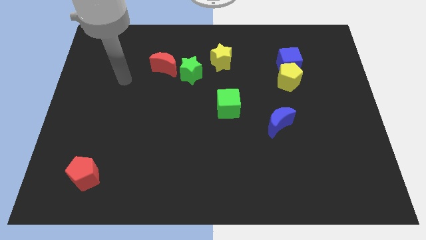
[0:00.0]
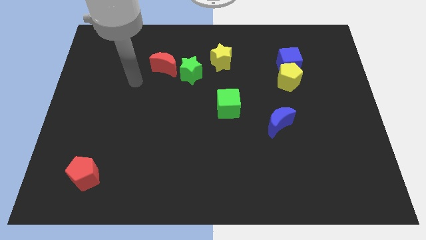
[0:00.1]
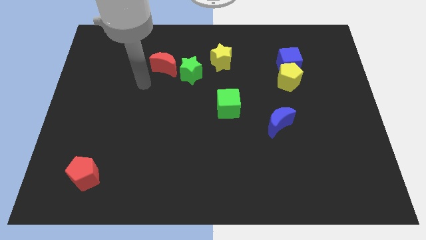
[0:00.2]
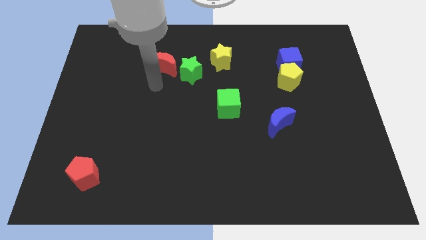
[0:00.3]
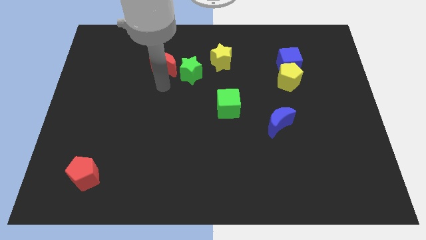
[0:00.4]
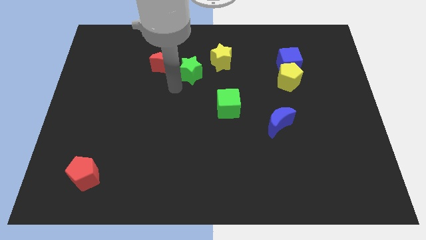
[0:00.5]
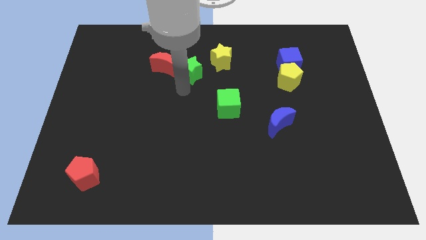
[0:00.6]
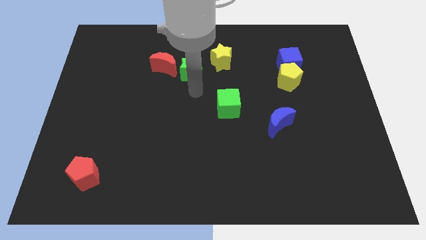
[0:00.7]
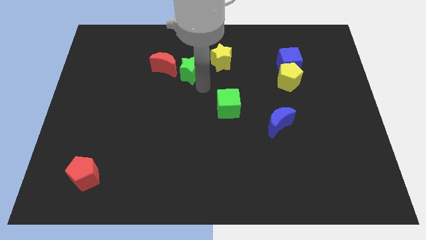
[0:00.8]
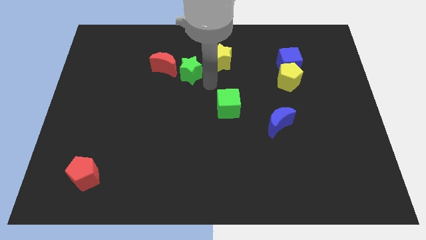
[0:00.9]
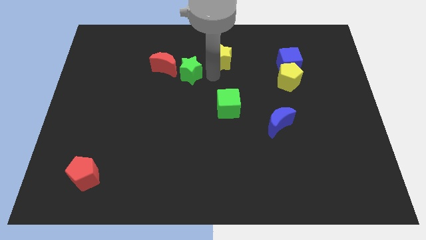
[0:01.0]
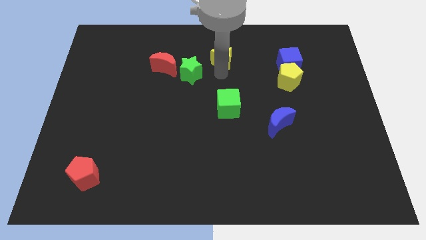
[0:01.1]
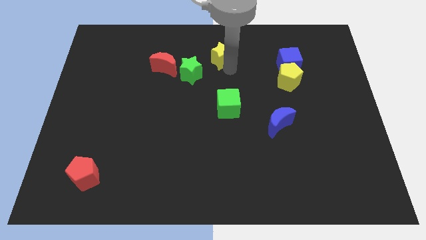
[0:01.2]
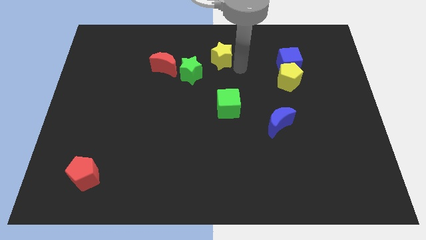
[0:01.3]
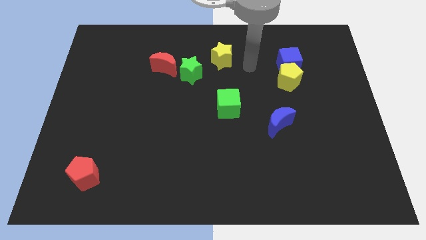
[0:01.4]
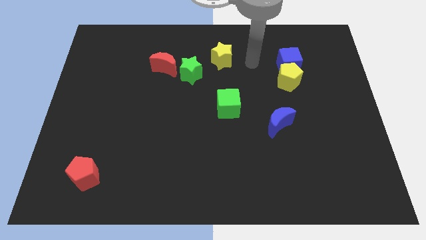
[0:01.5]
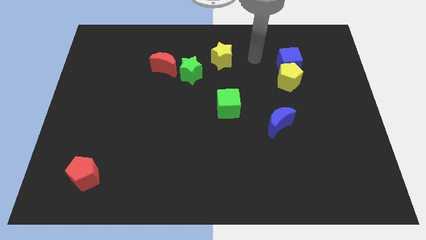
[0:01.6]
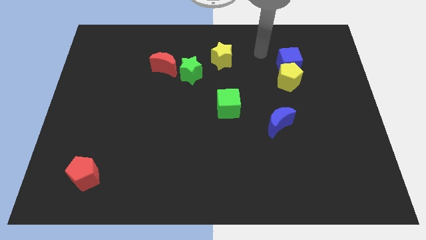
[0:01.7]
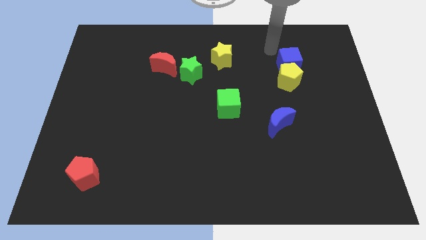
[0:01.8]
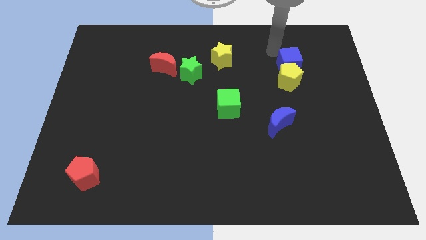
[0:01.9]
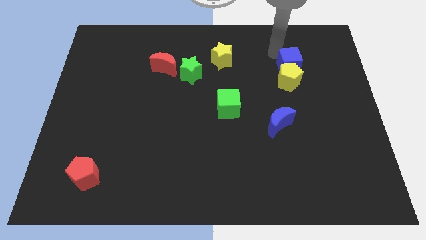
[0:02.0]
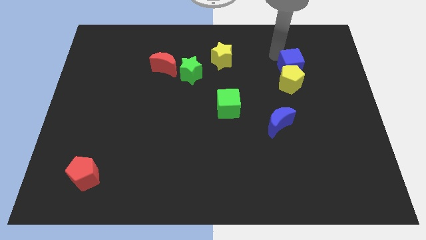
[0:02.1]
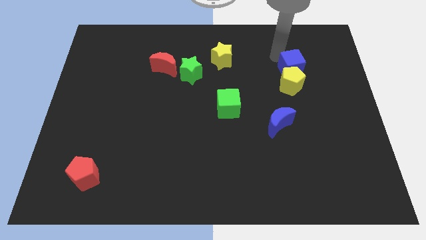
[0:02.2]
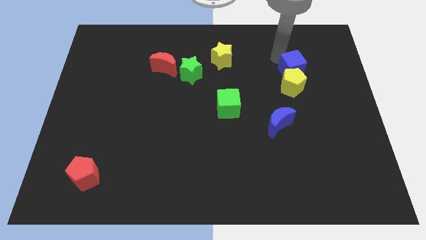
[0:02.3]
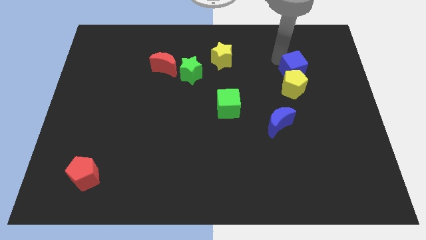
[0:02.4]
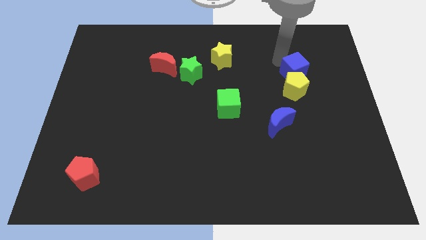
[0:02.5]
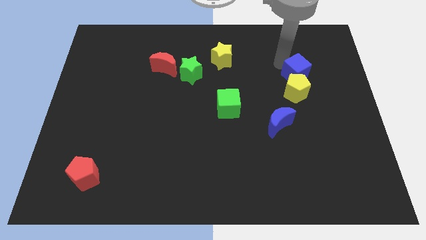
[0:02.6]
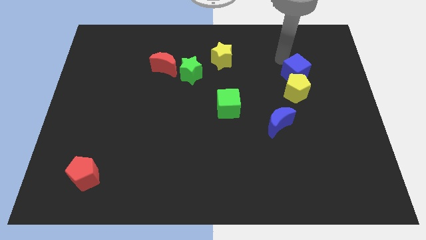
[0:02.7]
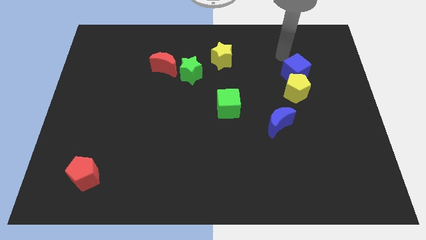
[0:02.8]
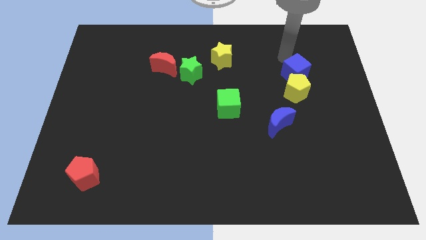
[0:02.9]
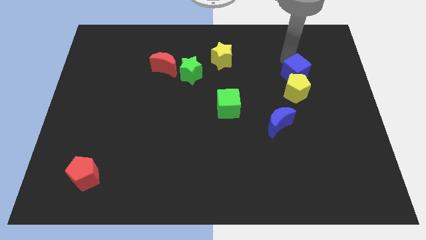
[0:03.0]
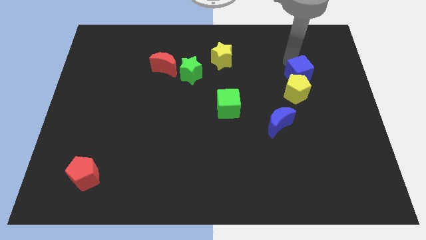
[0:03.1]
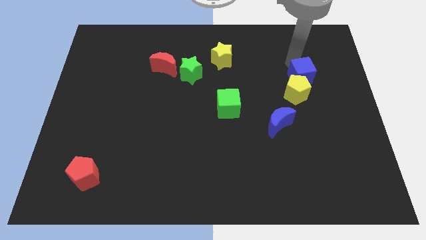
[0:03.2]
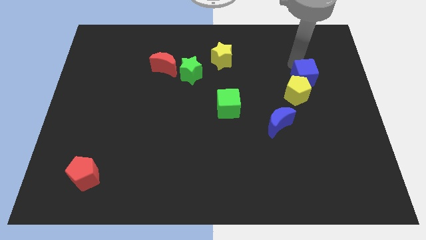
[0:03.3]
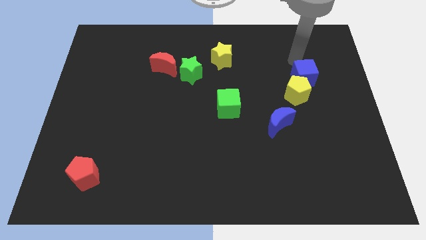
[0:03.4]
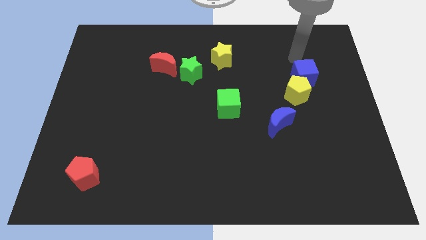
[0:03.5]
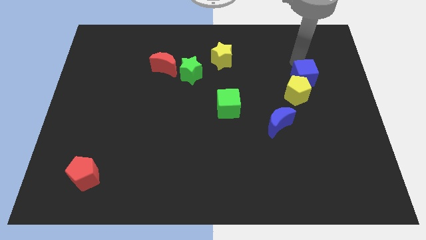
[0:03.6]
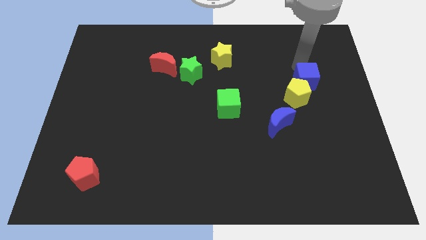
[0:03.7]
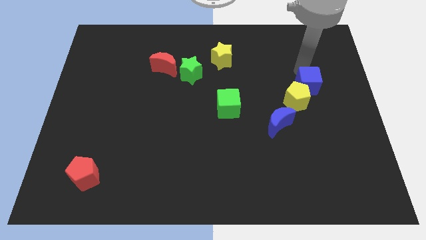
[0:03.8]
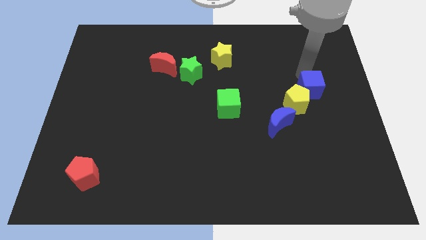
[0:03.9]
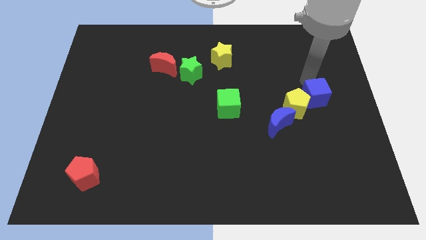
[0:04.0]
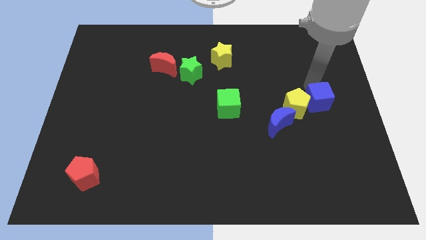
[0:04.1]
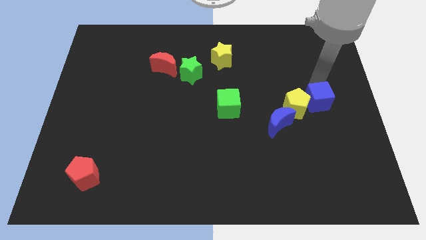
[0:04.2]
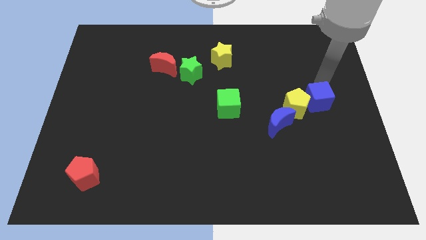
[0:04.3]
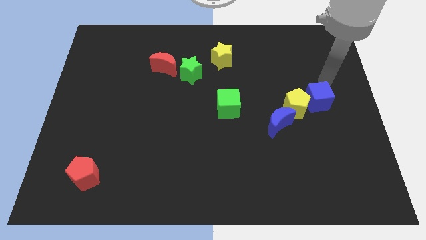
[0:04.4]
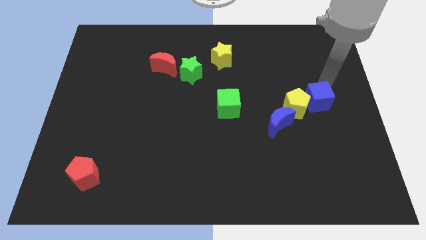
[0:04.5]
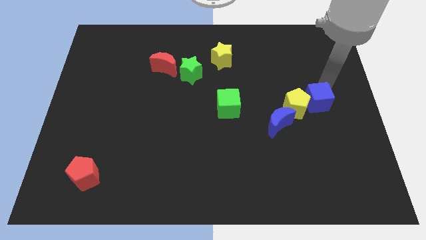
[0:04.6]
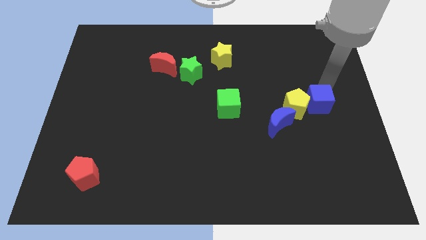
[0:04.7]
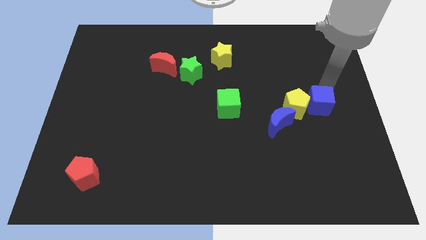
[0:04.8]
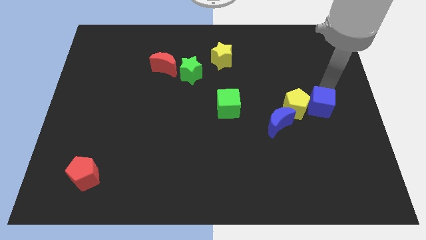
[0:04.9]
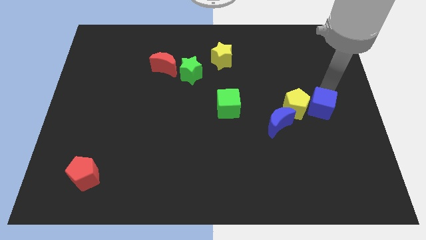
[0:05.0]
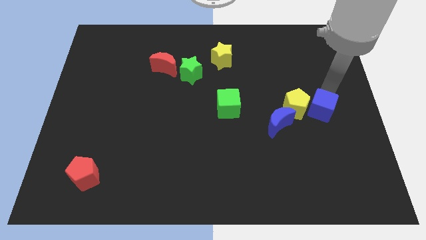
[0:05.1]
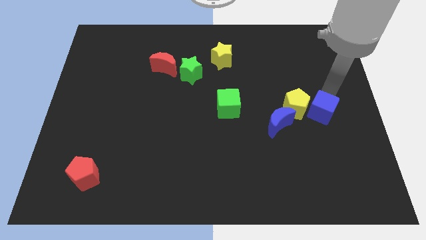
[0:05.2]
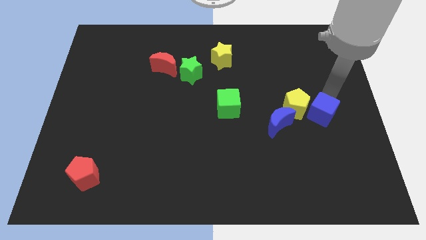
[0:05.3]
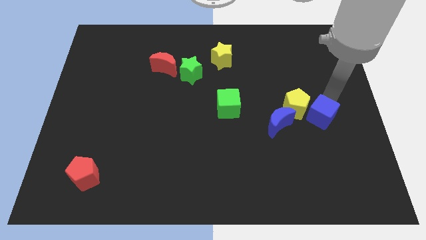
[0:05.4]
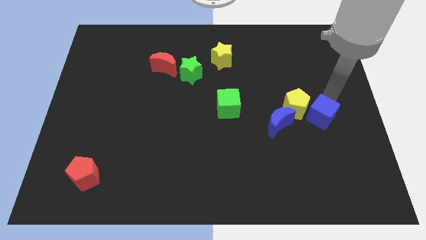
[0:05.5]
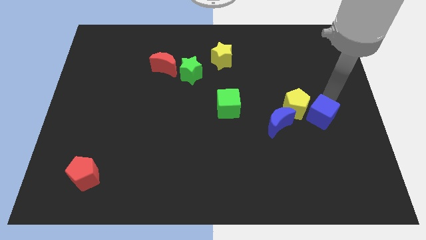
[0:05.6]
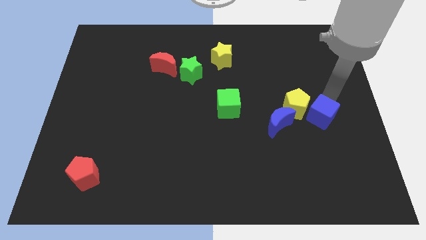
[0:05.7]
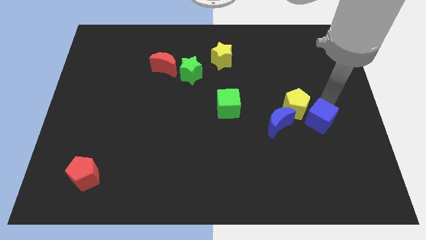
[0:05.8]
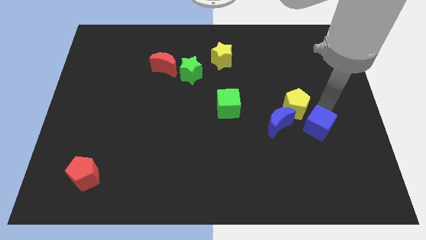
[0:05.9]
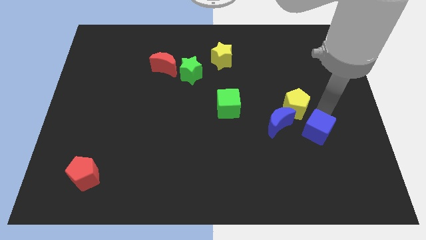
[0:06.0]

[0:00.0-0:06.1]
slide the blue cube downwards

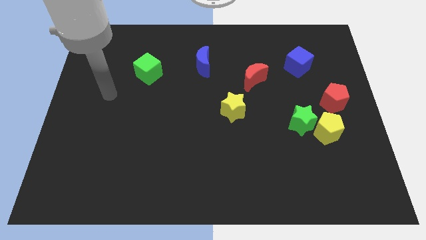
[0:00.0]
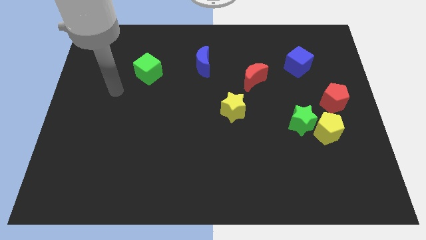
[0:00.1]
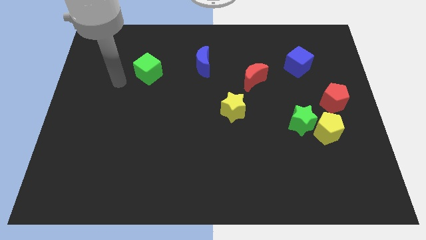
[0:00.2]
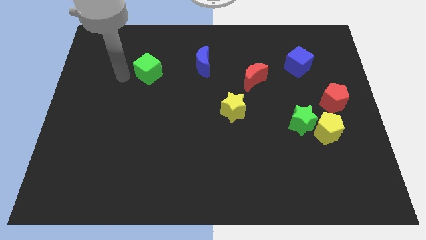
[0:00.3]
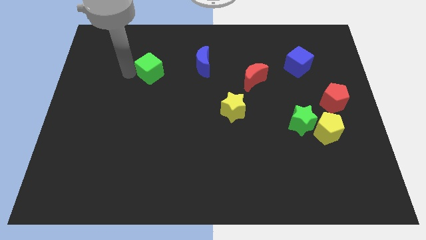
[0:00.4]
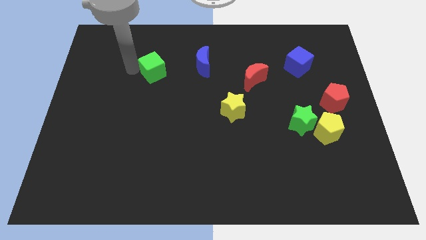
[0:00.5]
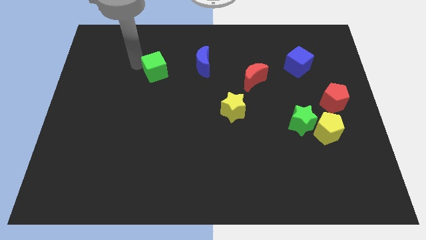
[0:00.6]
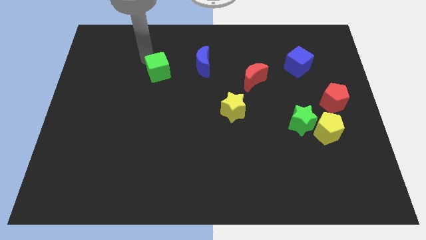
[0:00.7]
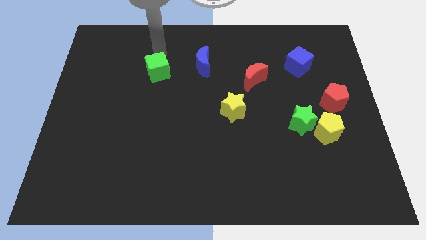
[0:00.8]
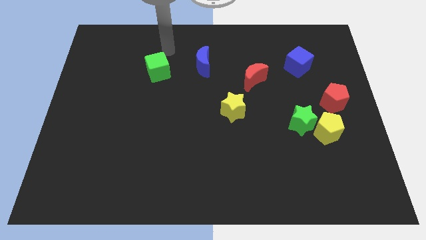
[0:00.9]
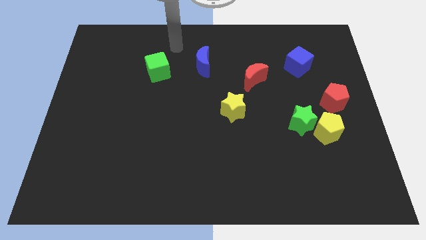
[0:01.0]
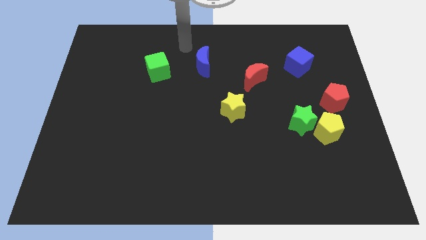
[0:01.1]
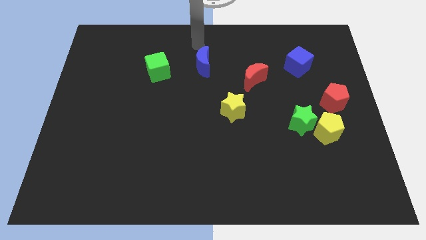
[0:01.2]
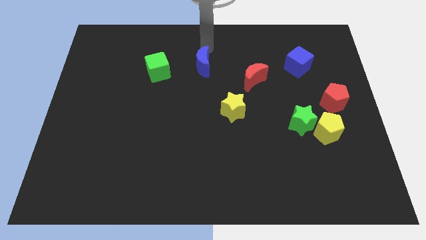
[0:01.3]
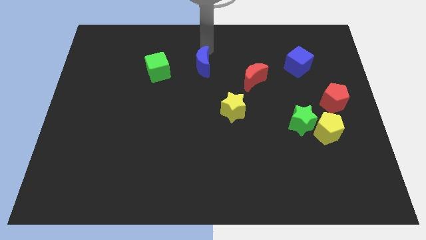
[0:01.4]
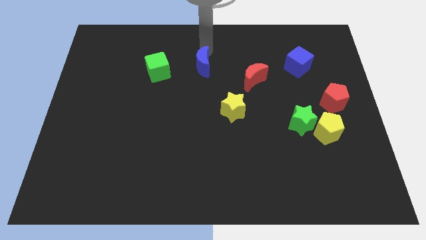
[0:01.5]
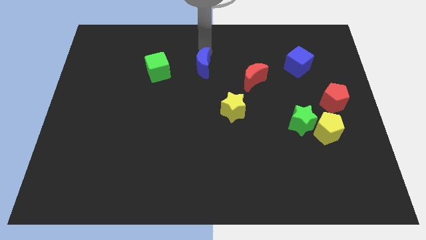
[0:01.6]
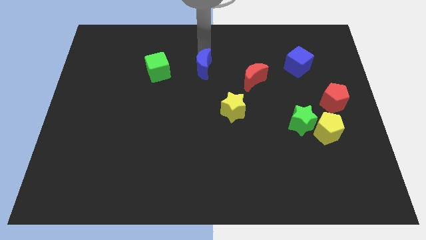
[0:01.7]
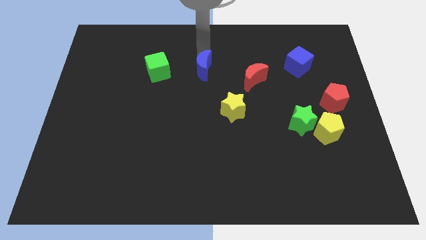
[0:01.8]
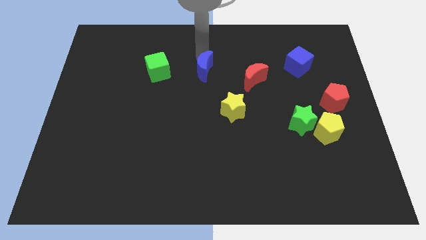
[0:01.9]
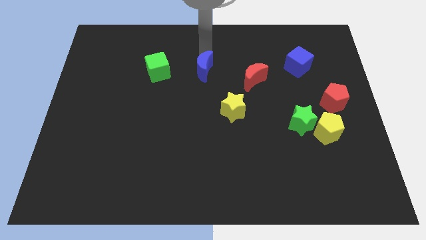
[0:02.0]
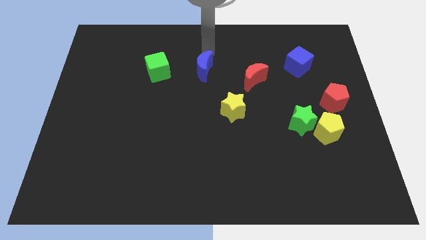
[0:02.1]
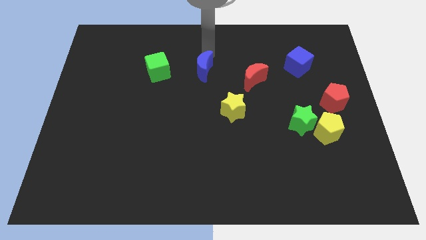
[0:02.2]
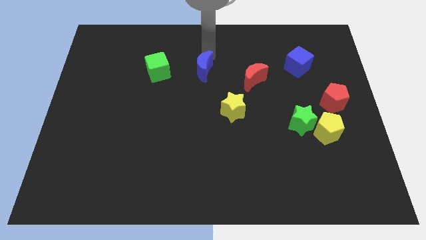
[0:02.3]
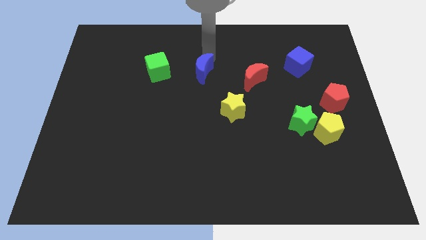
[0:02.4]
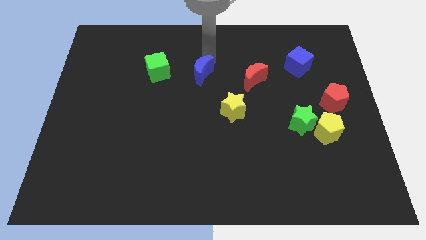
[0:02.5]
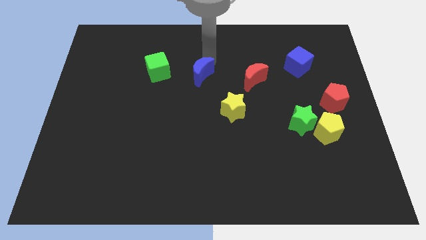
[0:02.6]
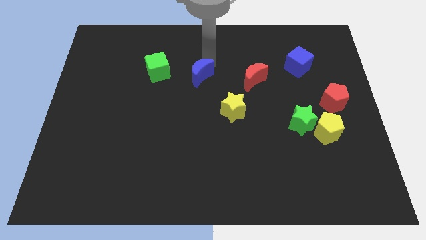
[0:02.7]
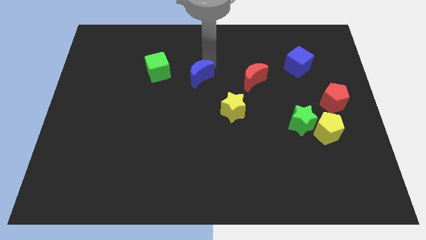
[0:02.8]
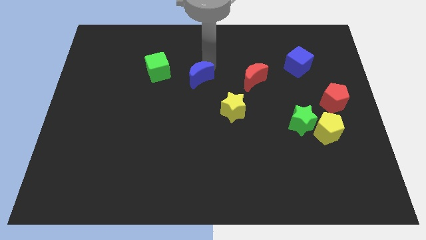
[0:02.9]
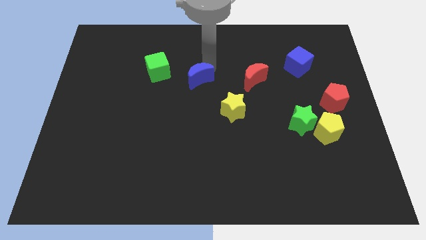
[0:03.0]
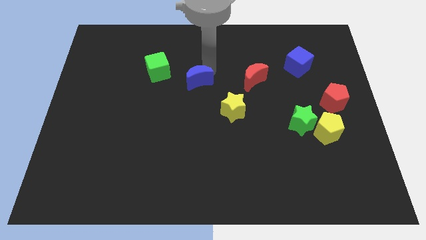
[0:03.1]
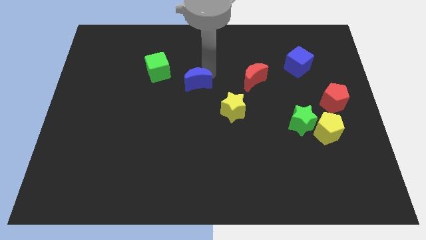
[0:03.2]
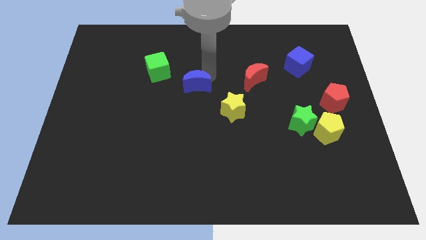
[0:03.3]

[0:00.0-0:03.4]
move the blue moon slightly downwards
